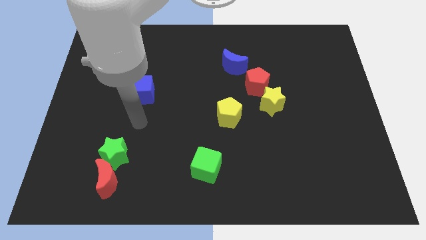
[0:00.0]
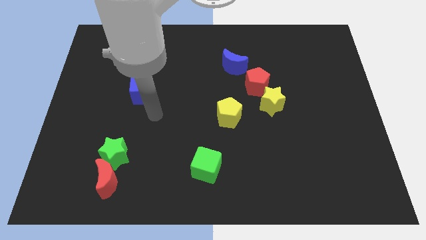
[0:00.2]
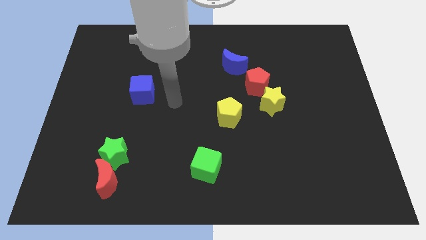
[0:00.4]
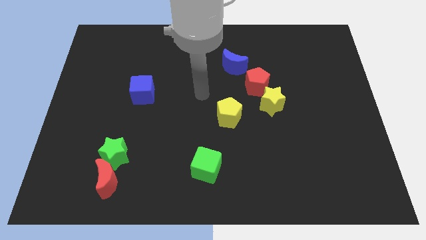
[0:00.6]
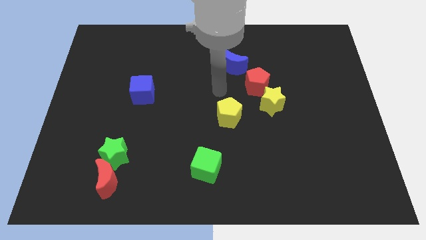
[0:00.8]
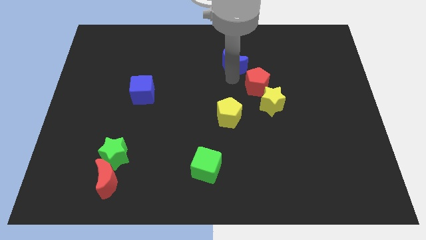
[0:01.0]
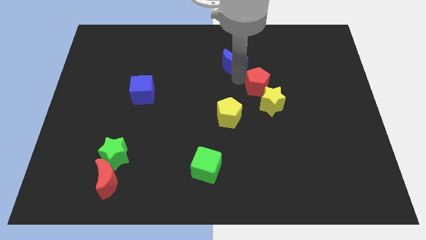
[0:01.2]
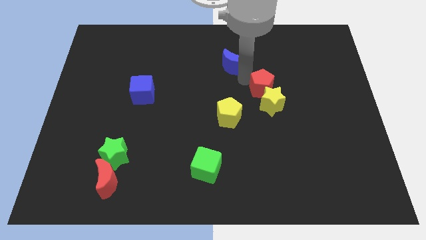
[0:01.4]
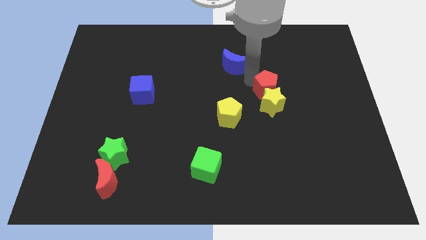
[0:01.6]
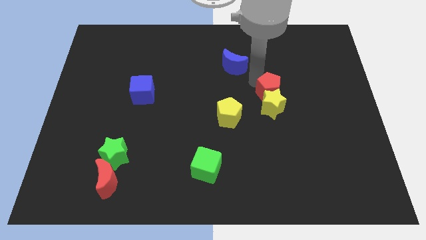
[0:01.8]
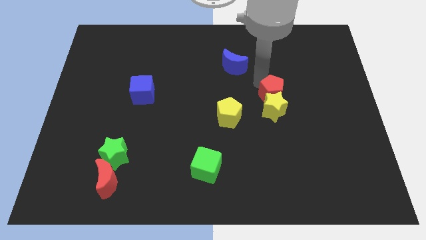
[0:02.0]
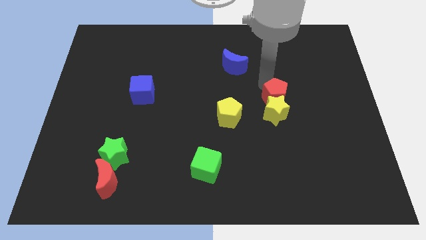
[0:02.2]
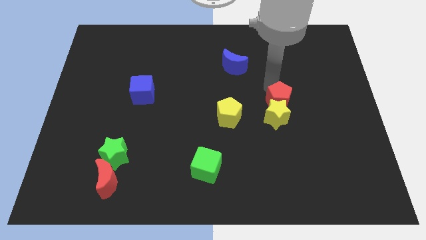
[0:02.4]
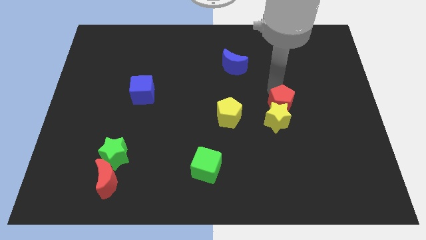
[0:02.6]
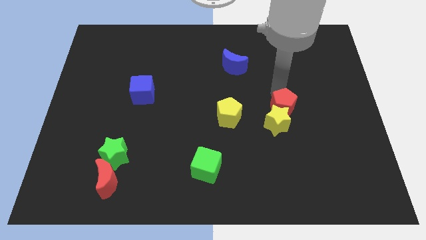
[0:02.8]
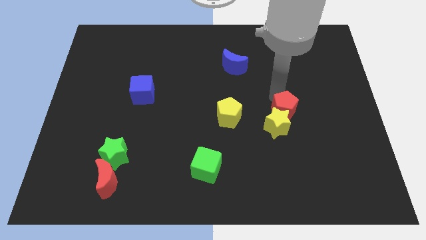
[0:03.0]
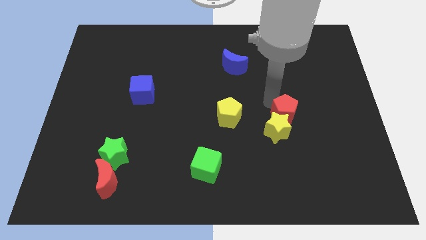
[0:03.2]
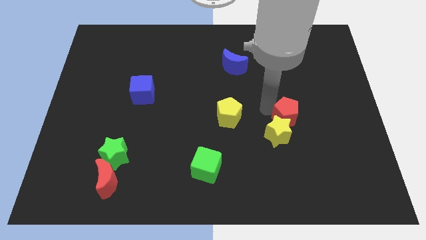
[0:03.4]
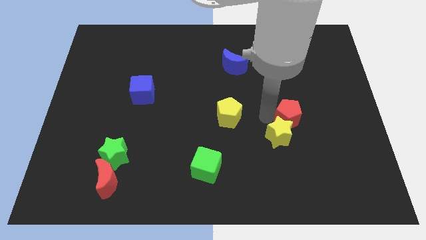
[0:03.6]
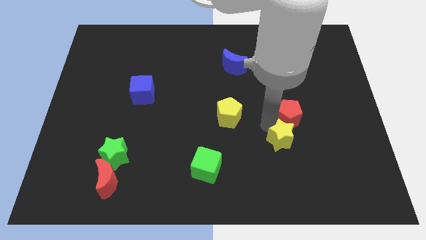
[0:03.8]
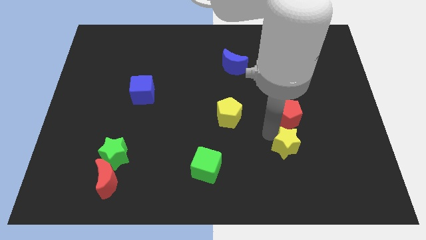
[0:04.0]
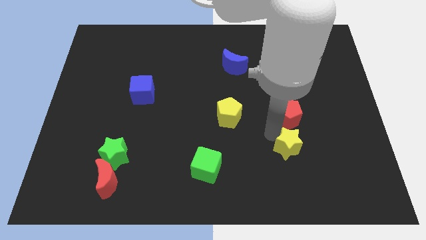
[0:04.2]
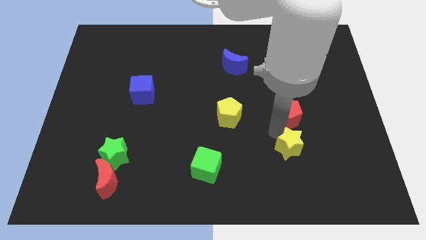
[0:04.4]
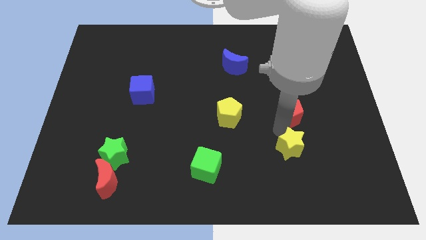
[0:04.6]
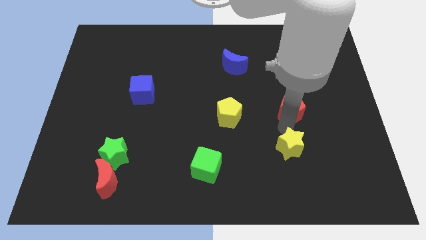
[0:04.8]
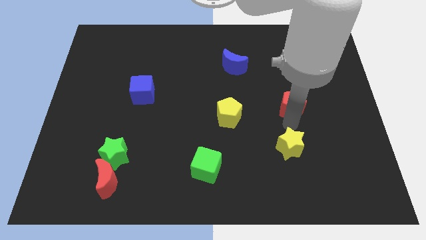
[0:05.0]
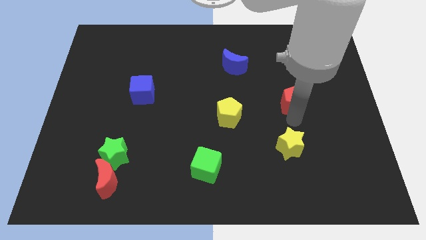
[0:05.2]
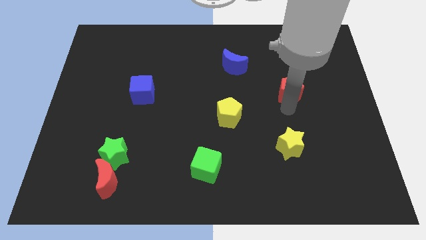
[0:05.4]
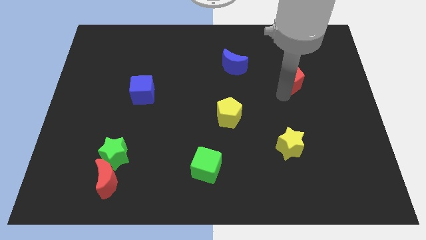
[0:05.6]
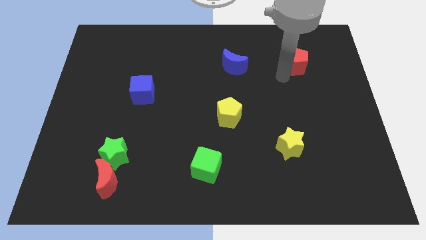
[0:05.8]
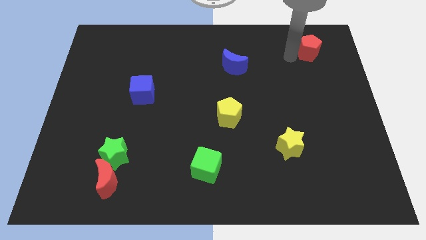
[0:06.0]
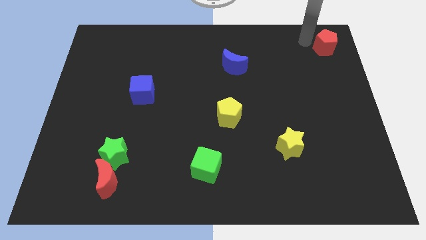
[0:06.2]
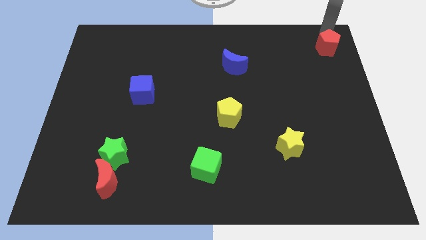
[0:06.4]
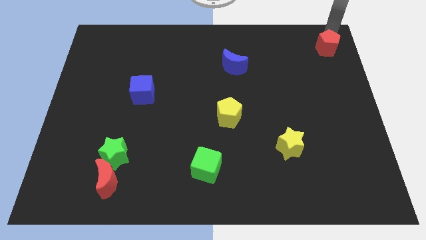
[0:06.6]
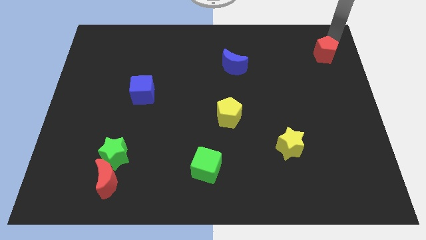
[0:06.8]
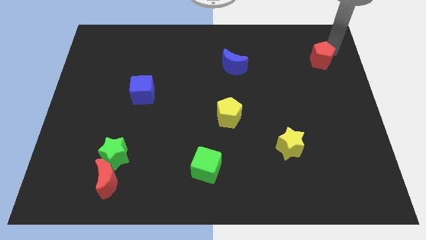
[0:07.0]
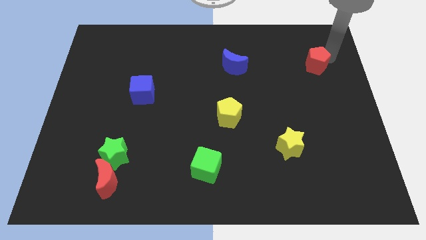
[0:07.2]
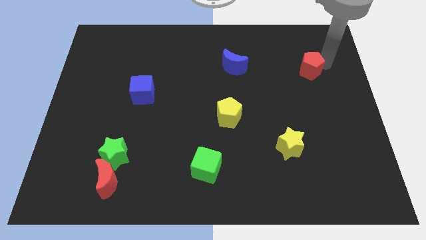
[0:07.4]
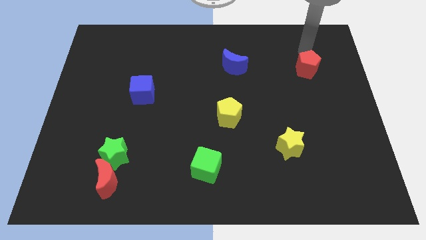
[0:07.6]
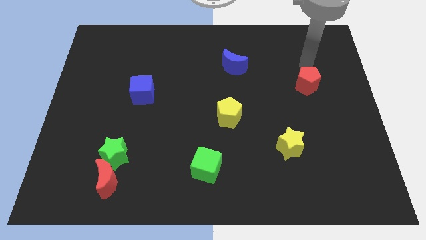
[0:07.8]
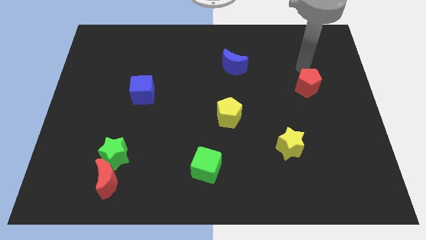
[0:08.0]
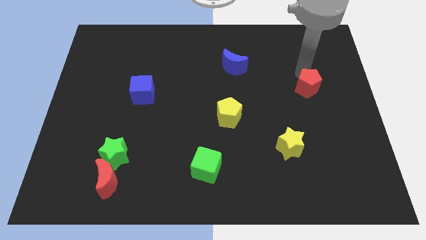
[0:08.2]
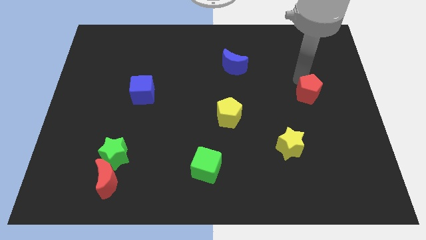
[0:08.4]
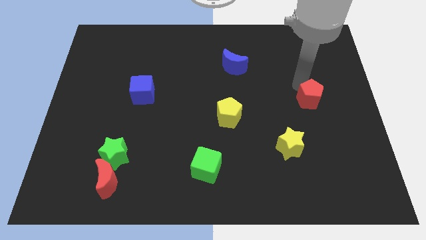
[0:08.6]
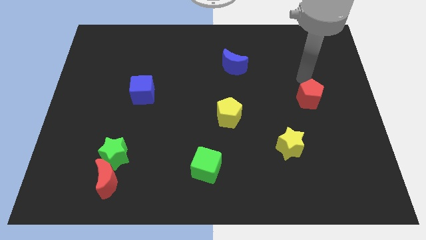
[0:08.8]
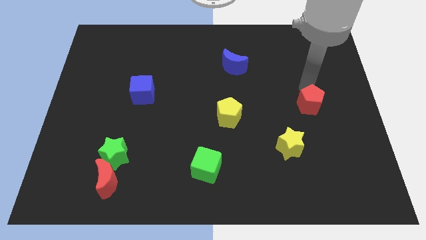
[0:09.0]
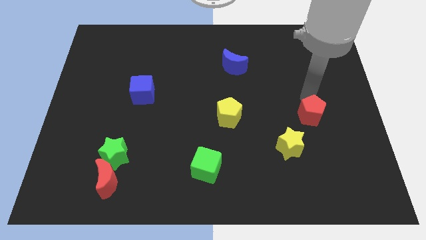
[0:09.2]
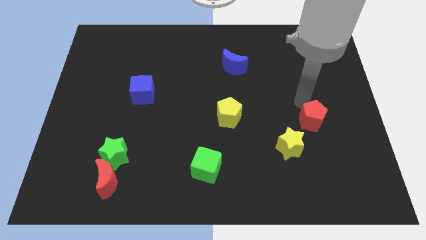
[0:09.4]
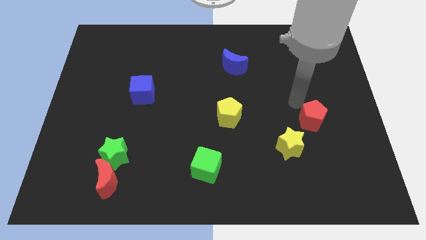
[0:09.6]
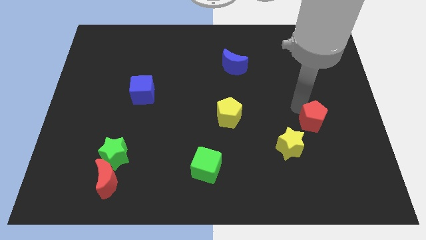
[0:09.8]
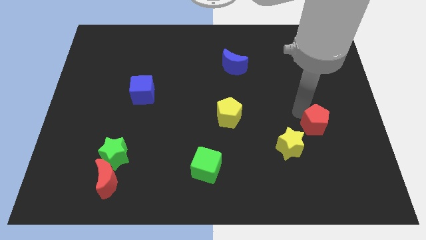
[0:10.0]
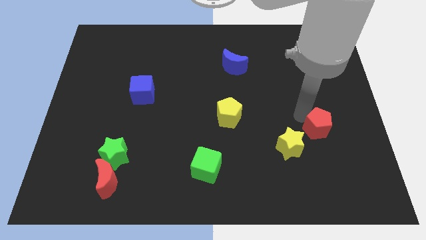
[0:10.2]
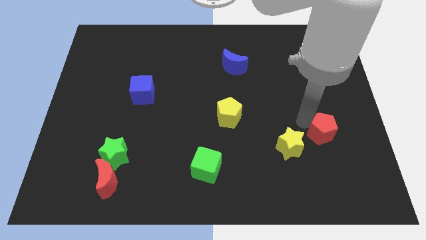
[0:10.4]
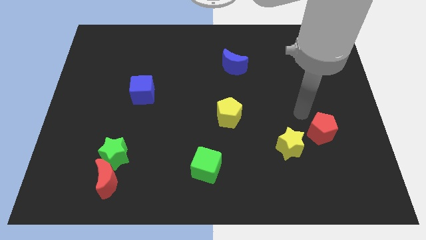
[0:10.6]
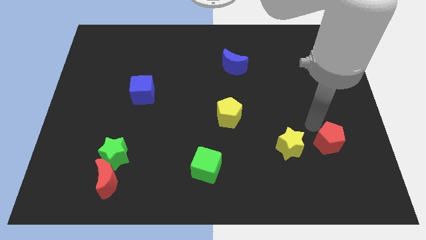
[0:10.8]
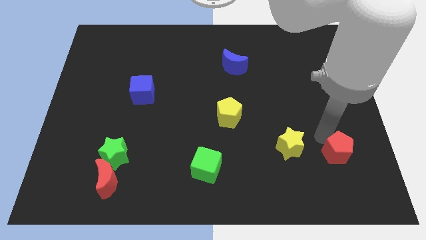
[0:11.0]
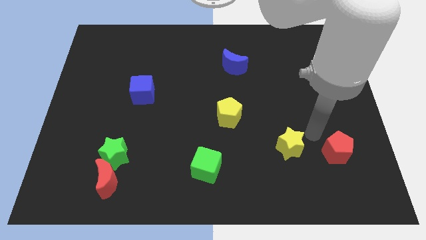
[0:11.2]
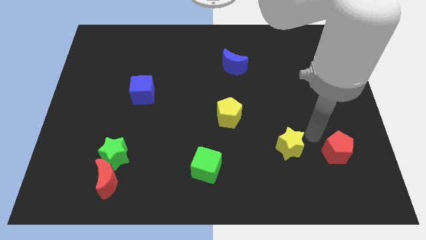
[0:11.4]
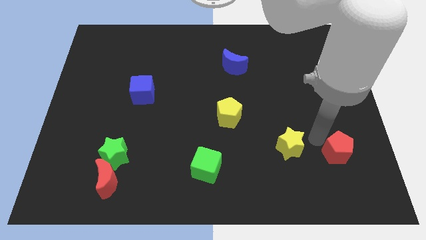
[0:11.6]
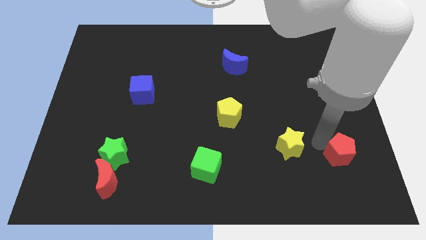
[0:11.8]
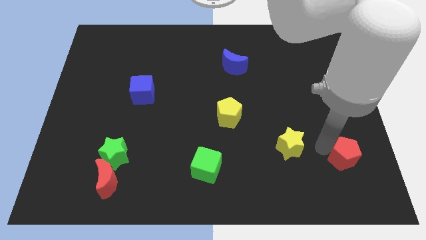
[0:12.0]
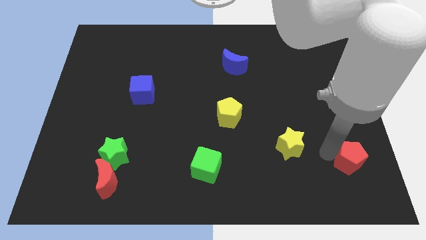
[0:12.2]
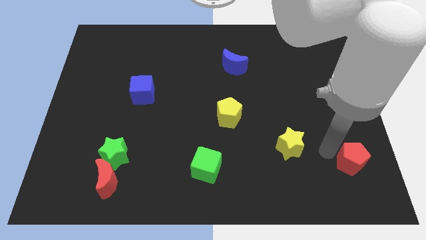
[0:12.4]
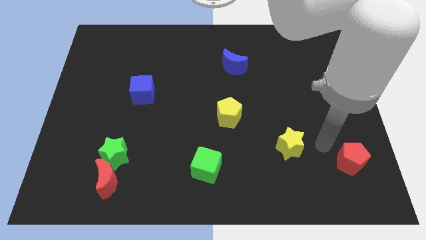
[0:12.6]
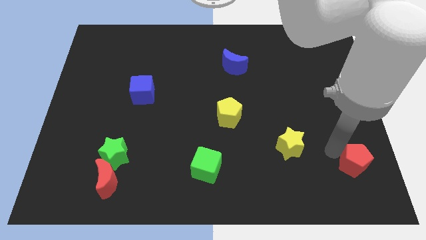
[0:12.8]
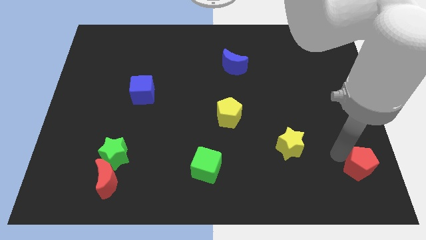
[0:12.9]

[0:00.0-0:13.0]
push the red pentagon to the bottom right
